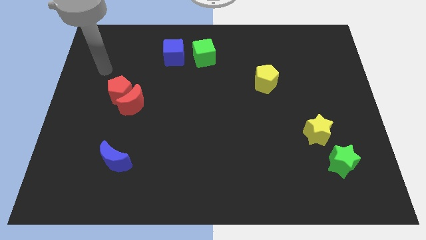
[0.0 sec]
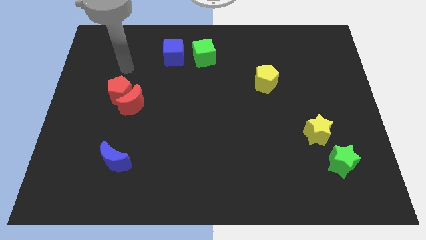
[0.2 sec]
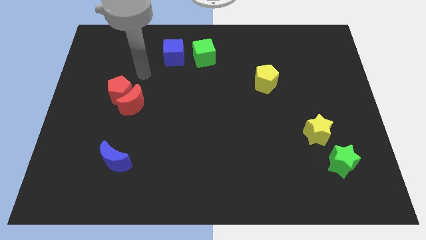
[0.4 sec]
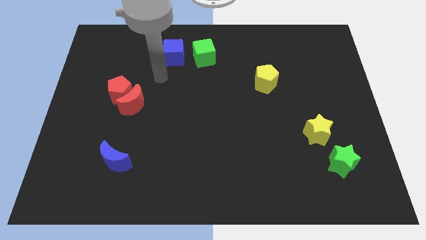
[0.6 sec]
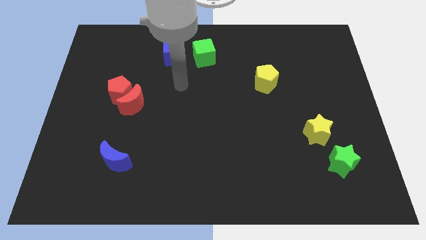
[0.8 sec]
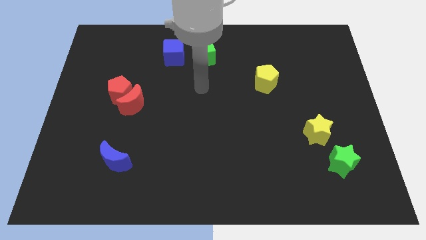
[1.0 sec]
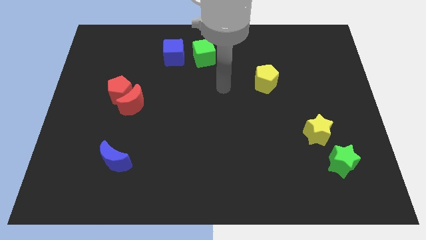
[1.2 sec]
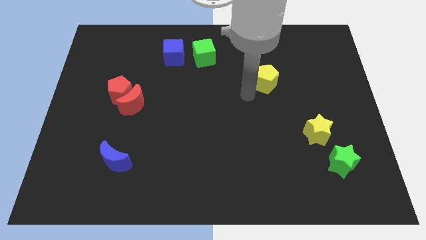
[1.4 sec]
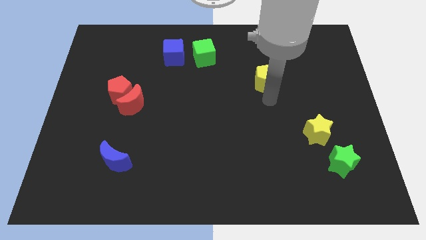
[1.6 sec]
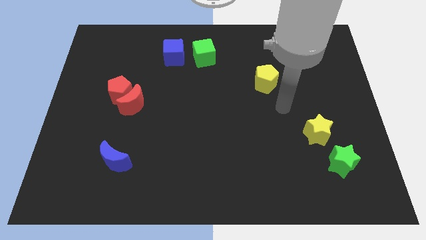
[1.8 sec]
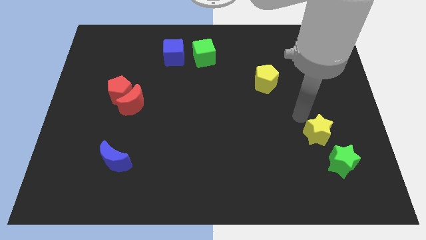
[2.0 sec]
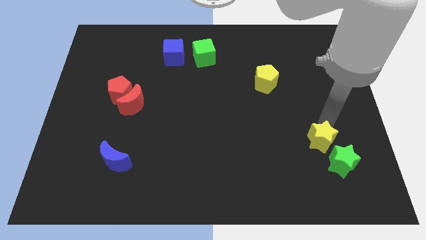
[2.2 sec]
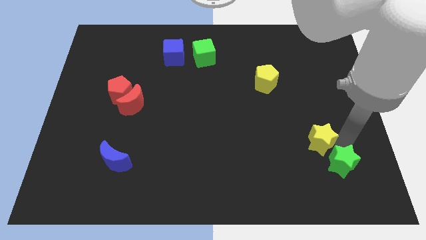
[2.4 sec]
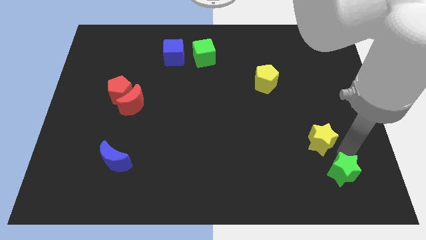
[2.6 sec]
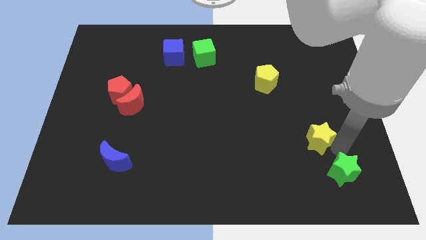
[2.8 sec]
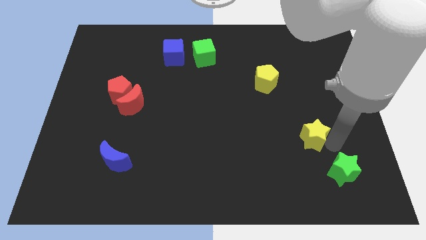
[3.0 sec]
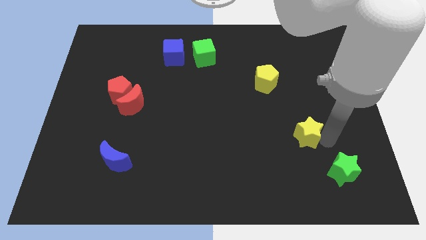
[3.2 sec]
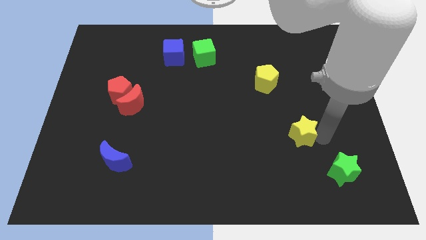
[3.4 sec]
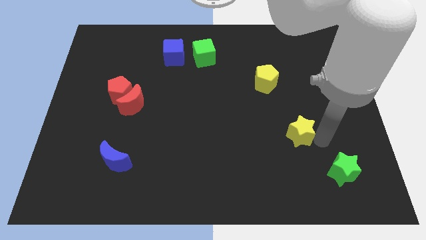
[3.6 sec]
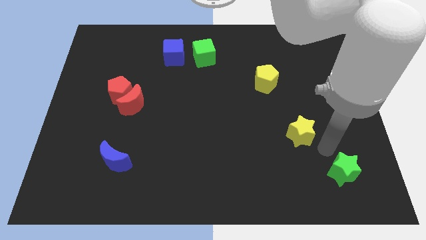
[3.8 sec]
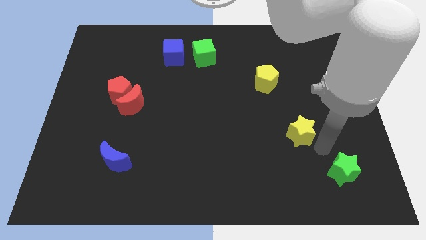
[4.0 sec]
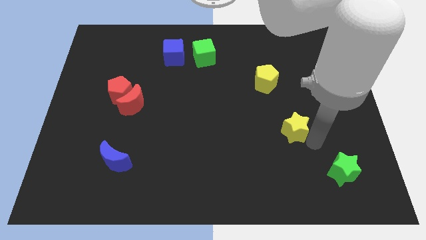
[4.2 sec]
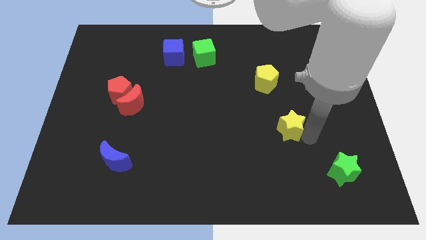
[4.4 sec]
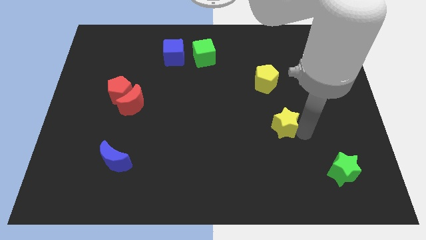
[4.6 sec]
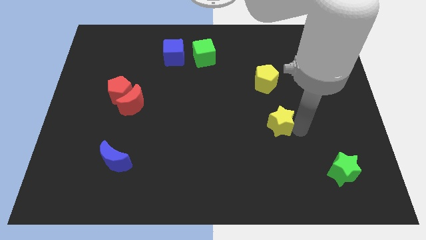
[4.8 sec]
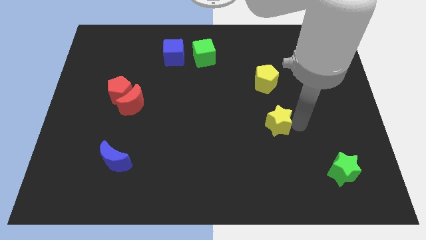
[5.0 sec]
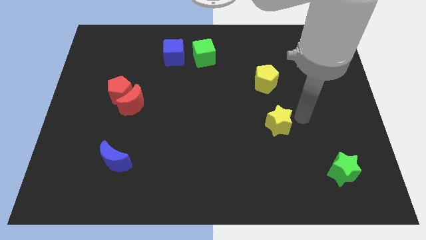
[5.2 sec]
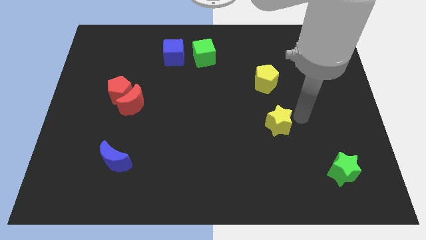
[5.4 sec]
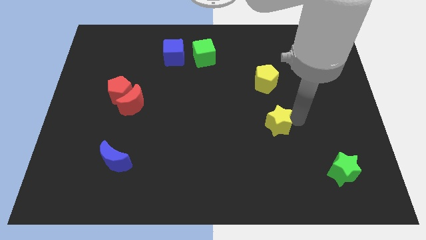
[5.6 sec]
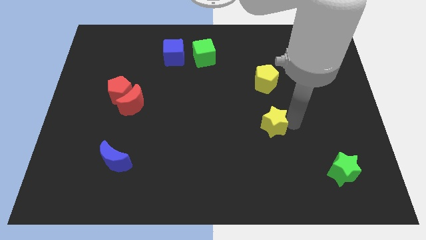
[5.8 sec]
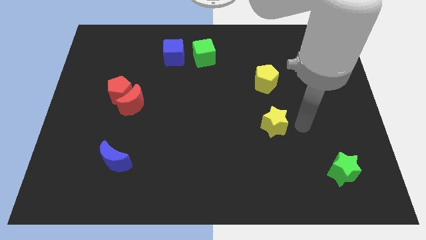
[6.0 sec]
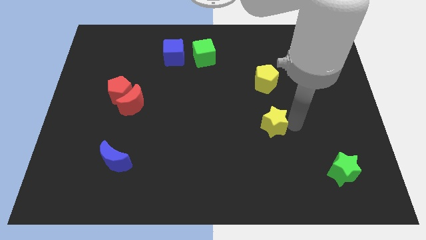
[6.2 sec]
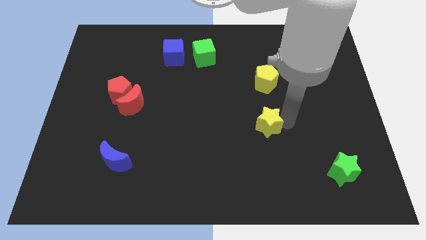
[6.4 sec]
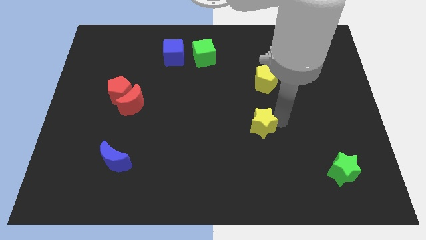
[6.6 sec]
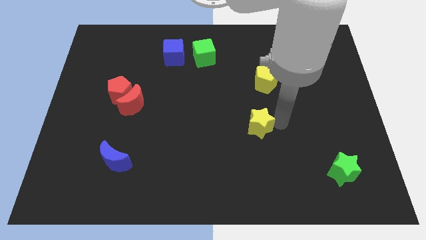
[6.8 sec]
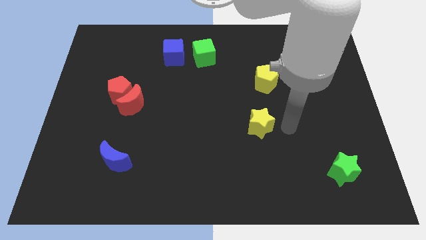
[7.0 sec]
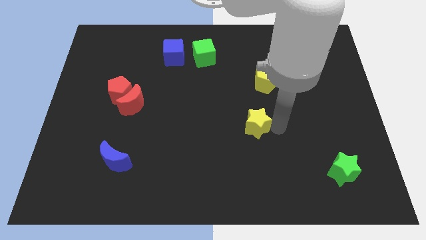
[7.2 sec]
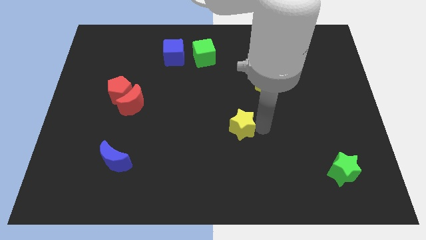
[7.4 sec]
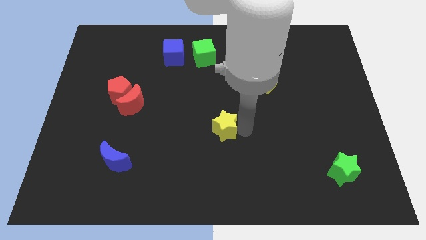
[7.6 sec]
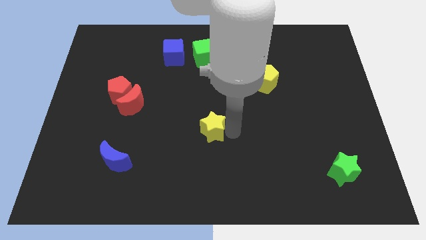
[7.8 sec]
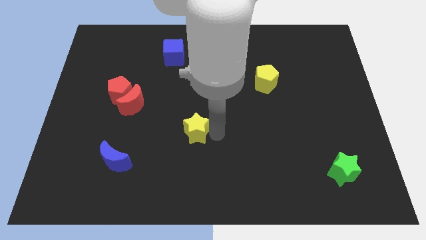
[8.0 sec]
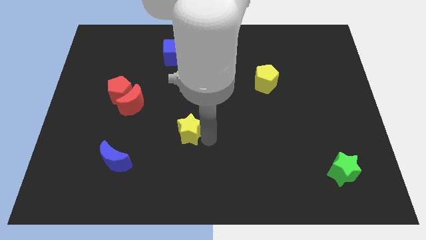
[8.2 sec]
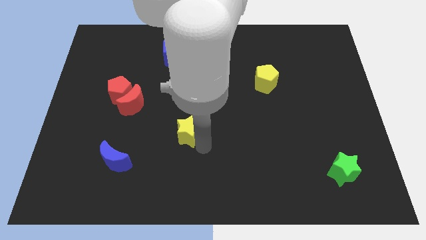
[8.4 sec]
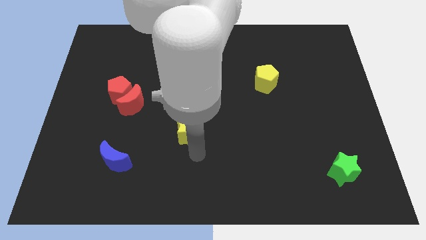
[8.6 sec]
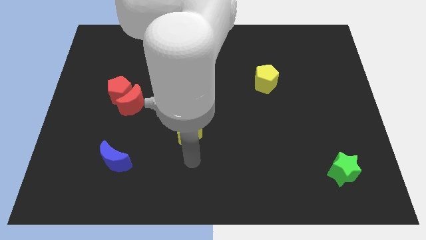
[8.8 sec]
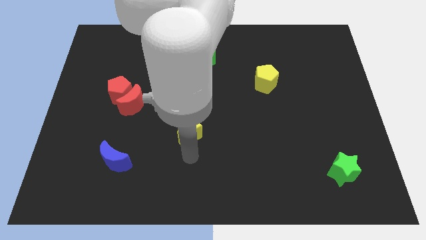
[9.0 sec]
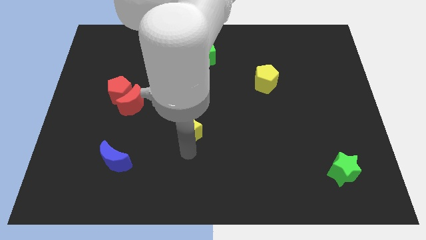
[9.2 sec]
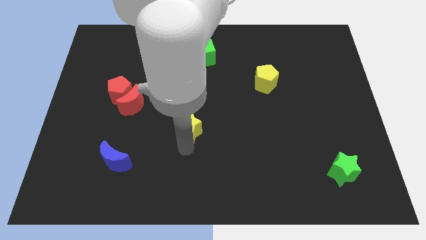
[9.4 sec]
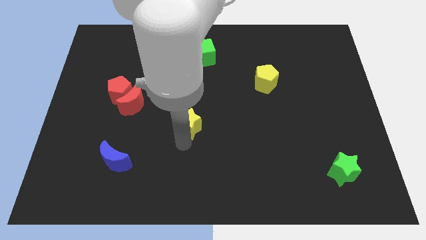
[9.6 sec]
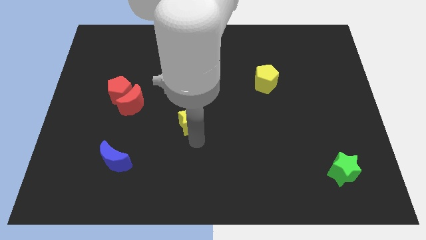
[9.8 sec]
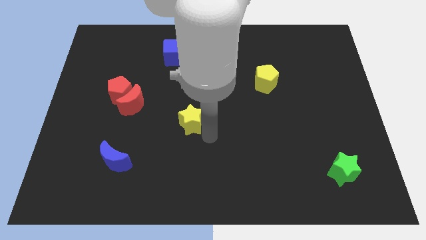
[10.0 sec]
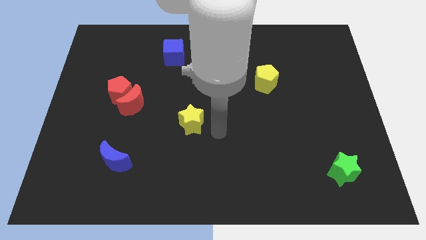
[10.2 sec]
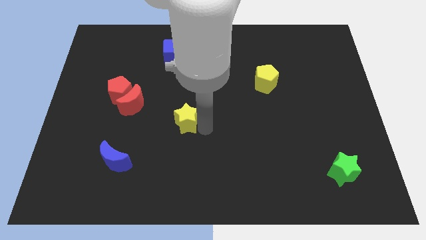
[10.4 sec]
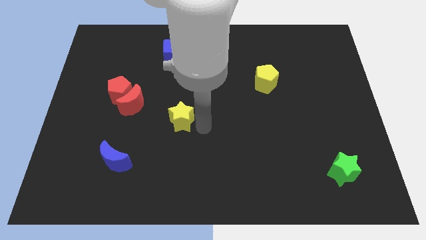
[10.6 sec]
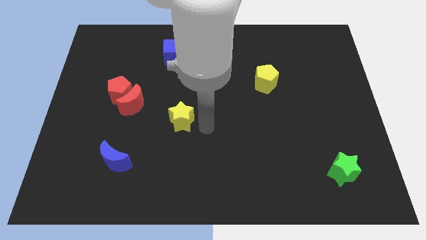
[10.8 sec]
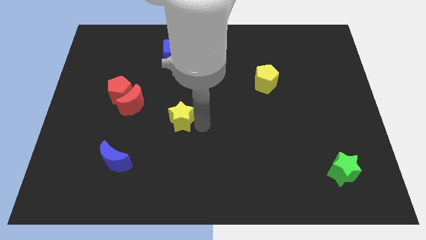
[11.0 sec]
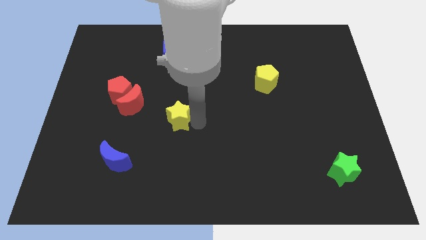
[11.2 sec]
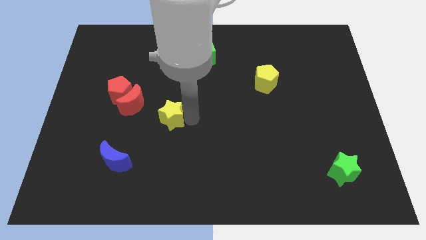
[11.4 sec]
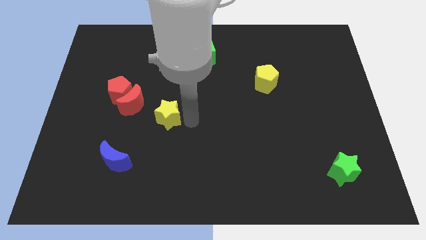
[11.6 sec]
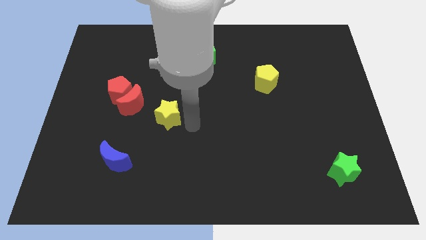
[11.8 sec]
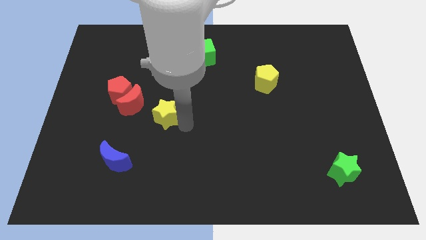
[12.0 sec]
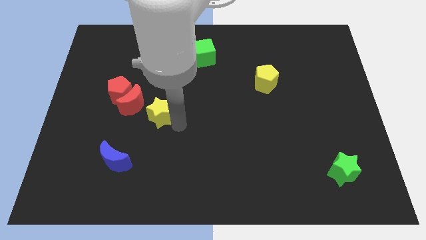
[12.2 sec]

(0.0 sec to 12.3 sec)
put the yellow star to the bottom right of the red pentagon
